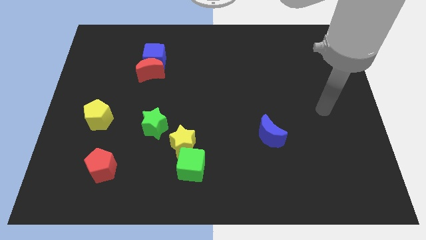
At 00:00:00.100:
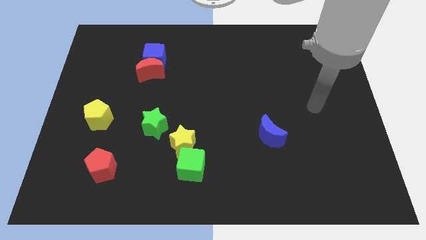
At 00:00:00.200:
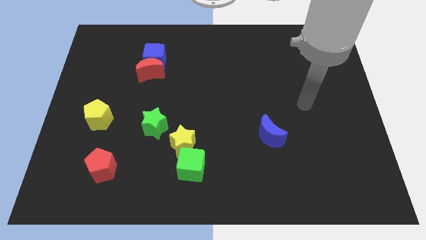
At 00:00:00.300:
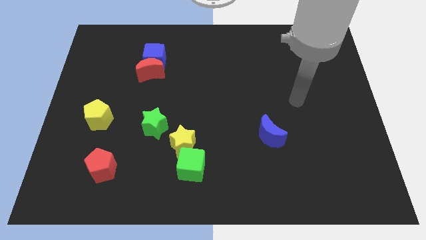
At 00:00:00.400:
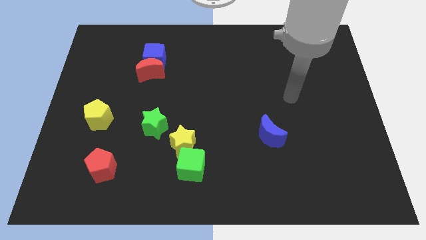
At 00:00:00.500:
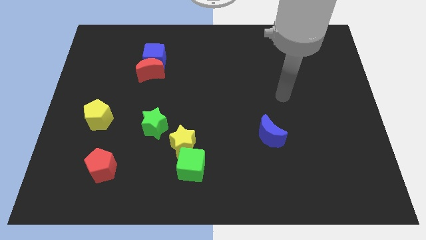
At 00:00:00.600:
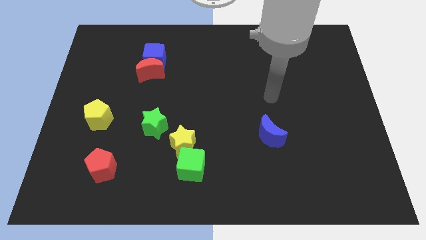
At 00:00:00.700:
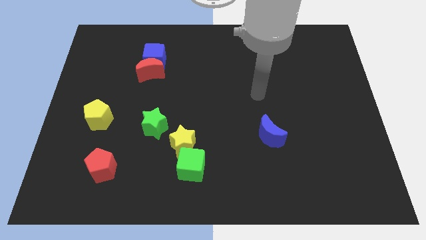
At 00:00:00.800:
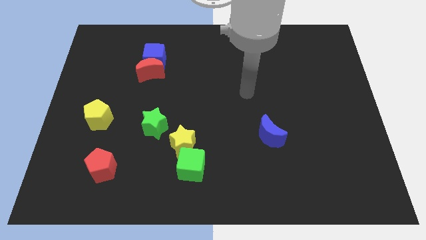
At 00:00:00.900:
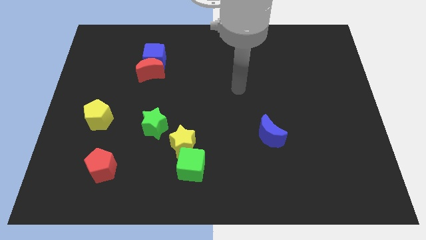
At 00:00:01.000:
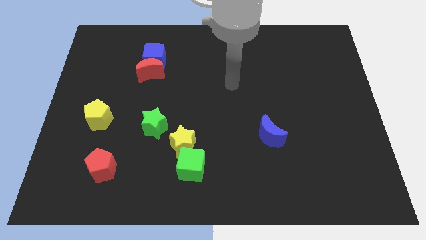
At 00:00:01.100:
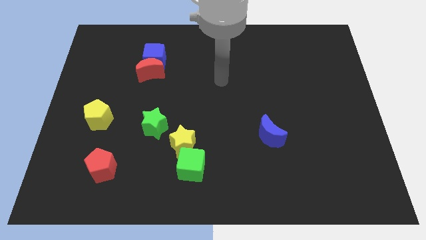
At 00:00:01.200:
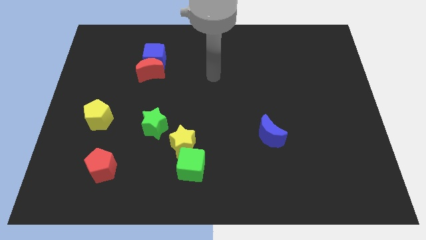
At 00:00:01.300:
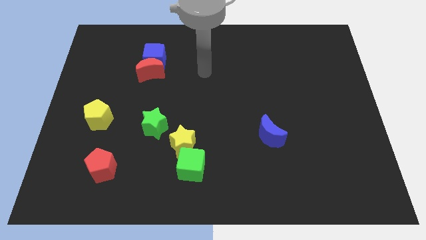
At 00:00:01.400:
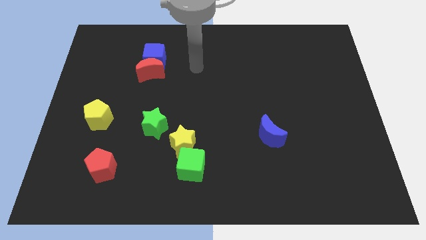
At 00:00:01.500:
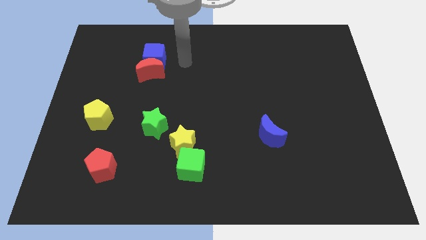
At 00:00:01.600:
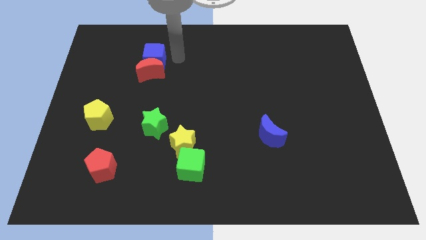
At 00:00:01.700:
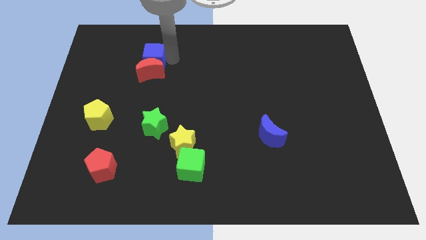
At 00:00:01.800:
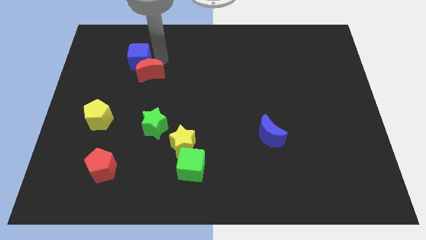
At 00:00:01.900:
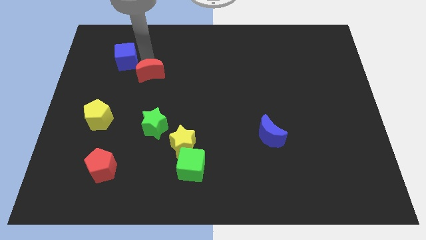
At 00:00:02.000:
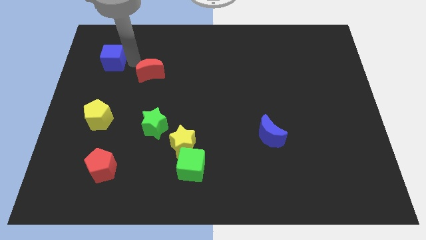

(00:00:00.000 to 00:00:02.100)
move the red moon away from the blue cube

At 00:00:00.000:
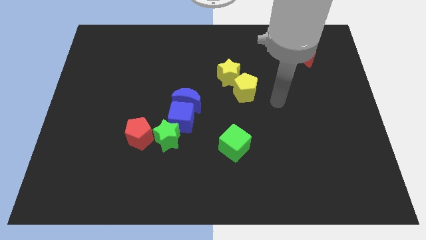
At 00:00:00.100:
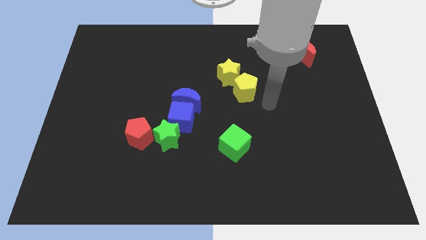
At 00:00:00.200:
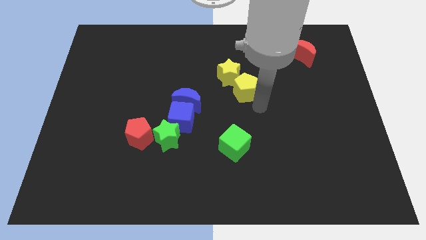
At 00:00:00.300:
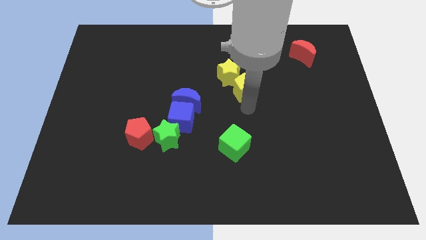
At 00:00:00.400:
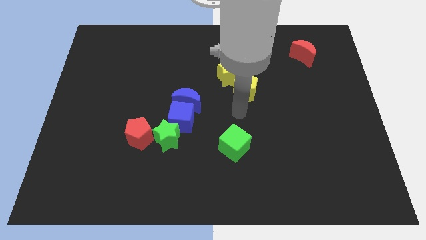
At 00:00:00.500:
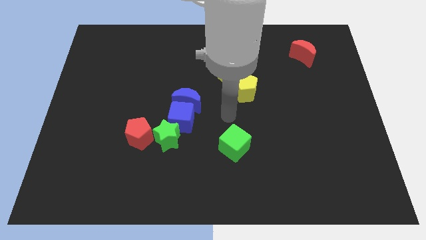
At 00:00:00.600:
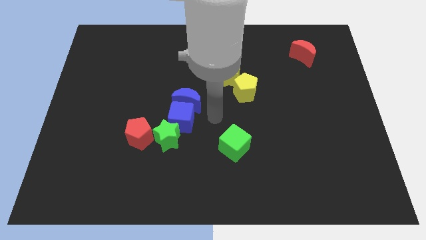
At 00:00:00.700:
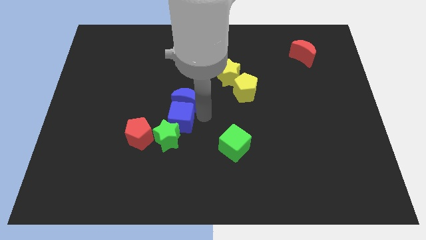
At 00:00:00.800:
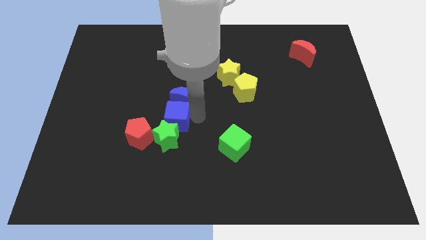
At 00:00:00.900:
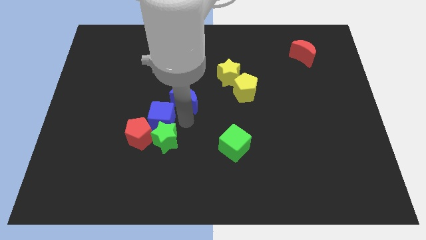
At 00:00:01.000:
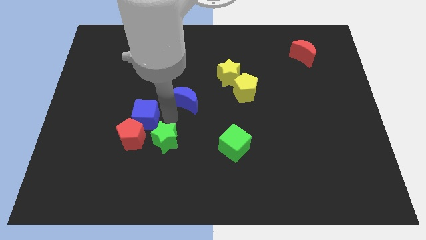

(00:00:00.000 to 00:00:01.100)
pull the blue moon apart from the blue cube

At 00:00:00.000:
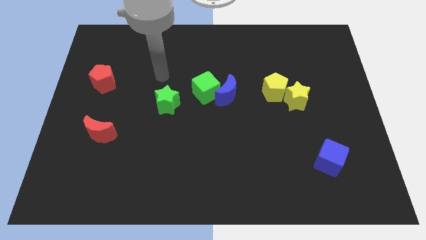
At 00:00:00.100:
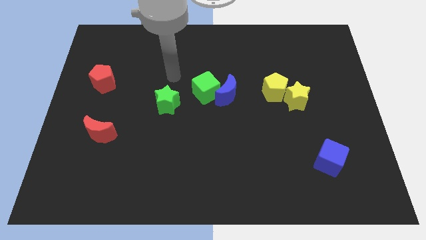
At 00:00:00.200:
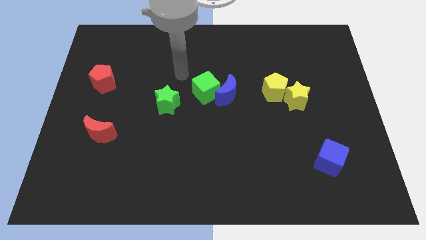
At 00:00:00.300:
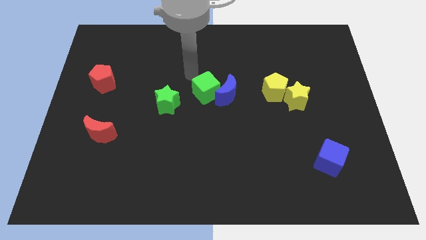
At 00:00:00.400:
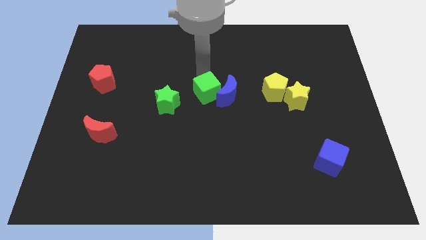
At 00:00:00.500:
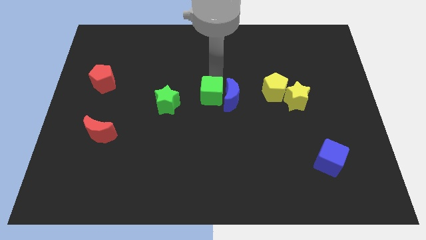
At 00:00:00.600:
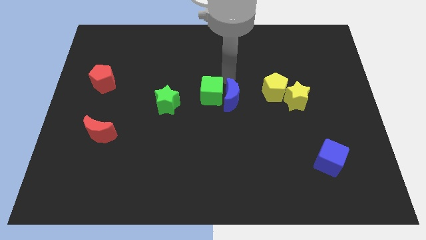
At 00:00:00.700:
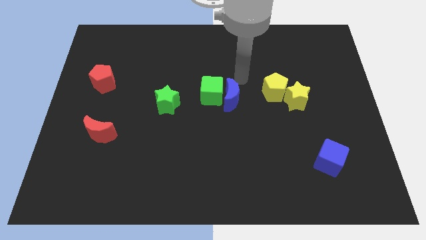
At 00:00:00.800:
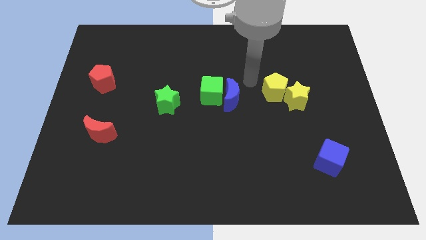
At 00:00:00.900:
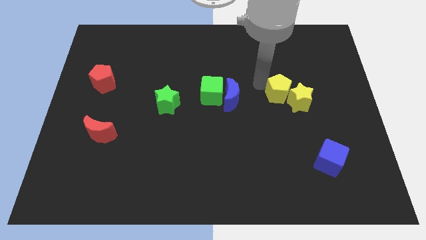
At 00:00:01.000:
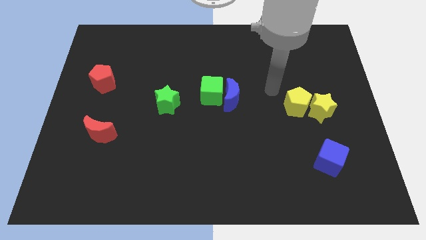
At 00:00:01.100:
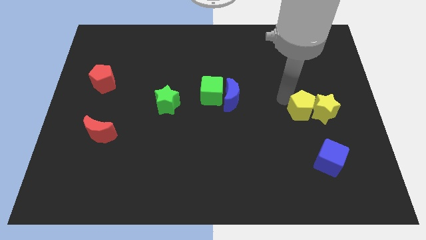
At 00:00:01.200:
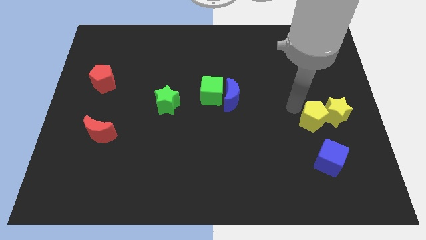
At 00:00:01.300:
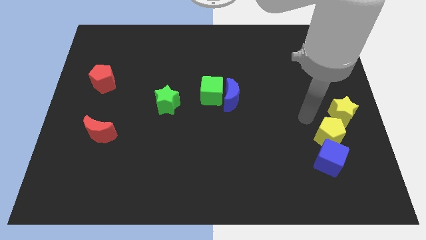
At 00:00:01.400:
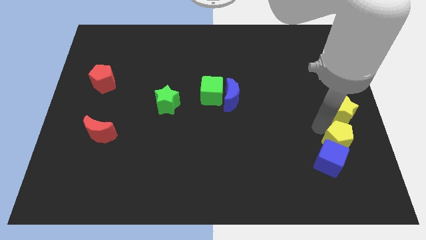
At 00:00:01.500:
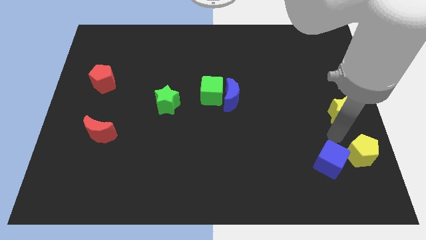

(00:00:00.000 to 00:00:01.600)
move the yellow star away from the yellow pentagon

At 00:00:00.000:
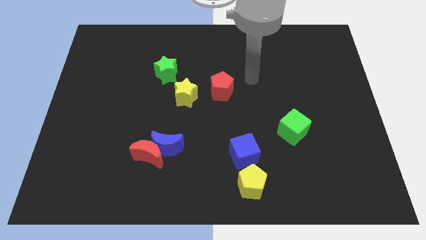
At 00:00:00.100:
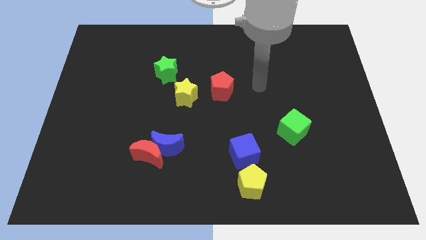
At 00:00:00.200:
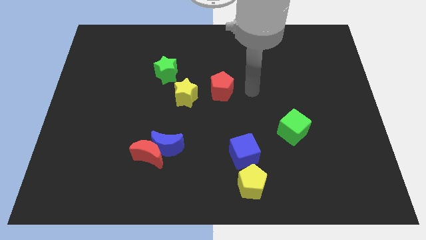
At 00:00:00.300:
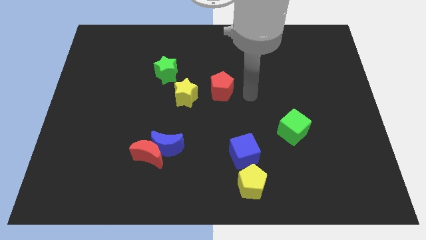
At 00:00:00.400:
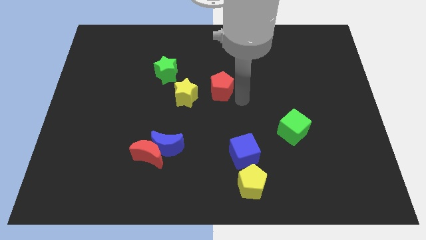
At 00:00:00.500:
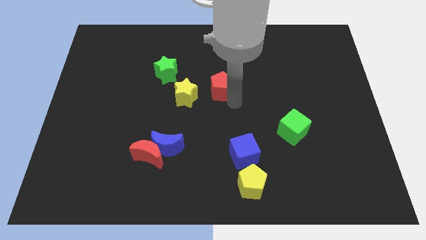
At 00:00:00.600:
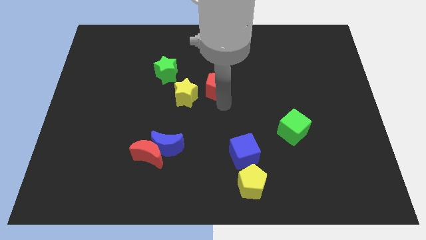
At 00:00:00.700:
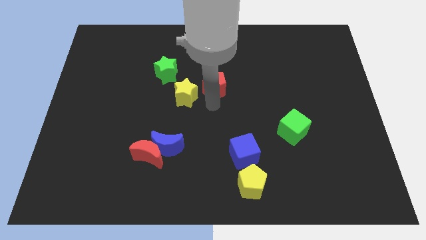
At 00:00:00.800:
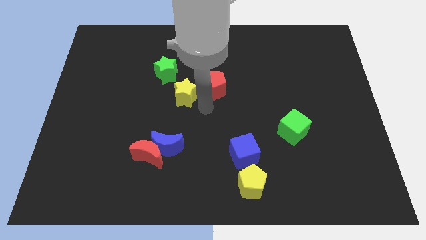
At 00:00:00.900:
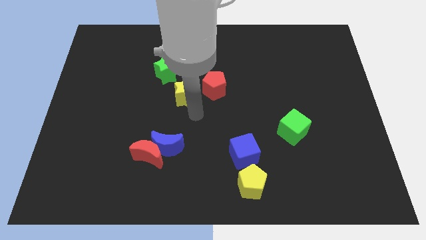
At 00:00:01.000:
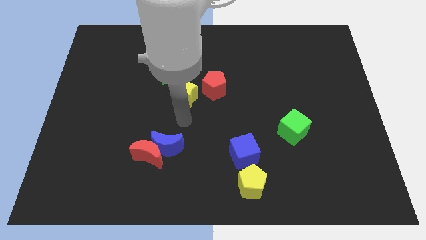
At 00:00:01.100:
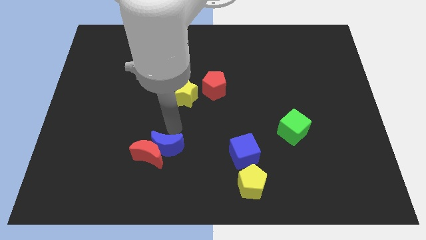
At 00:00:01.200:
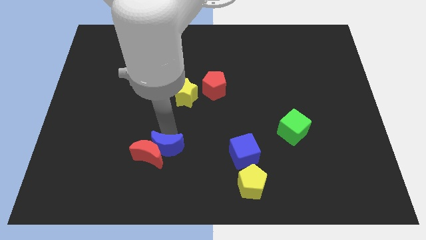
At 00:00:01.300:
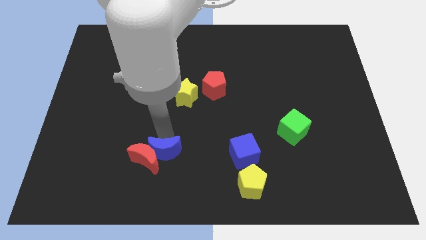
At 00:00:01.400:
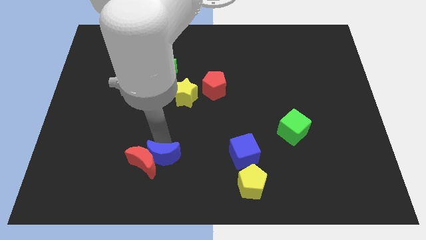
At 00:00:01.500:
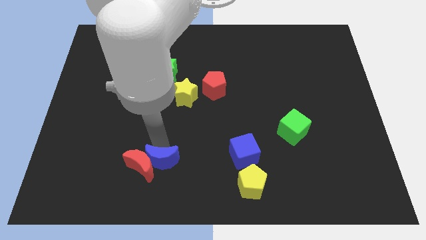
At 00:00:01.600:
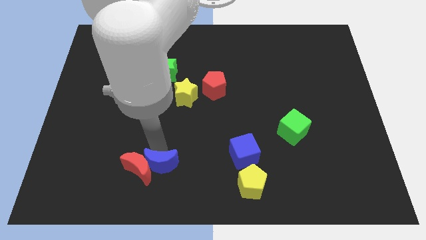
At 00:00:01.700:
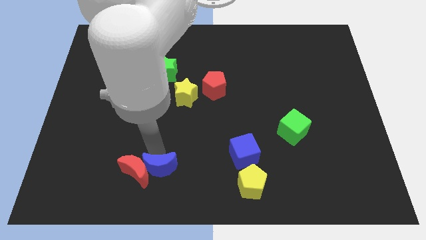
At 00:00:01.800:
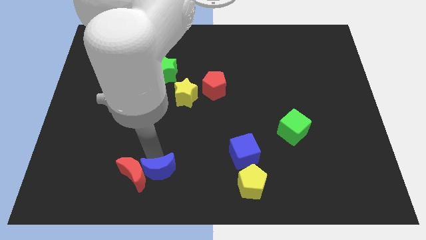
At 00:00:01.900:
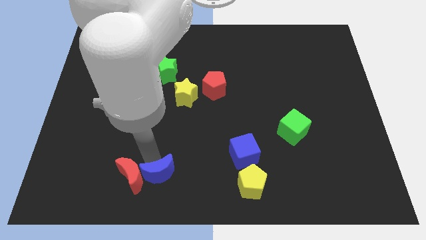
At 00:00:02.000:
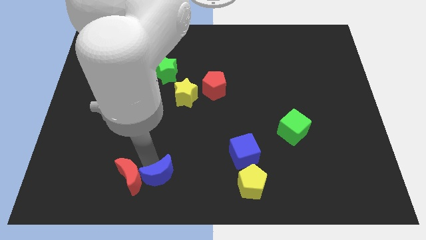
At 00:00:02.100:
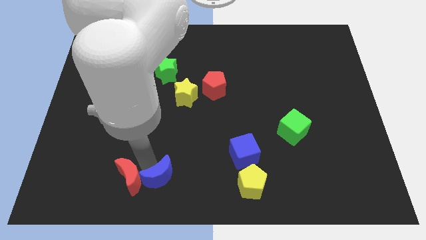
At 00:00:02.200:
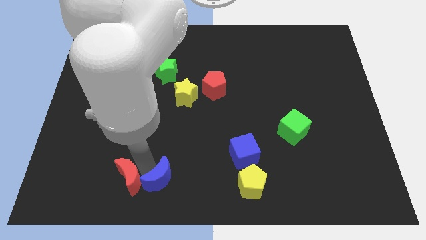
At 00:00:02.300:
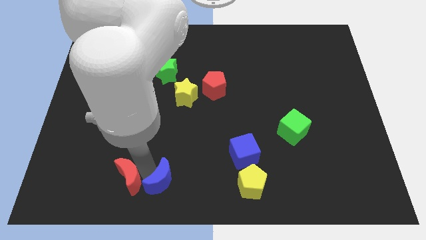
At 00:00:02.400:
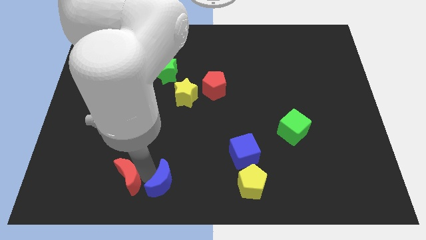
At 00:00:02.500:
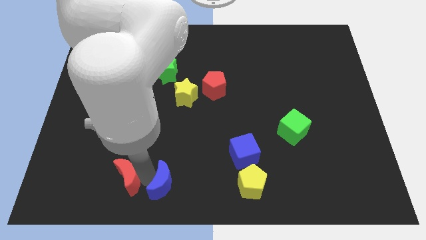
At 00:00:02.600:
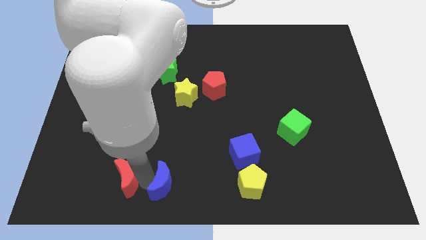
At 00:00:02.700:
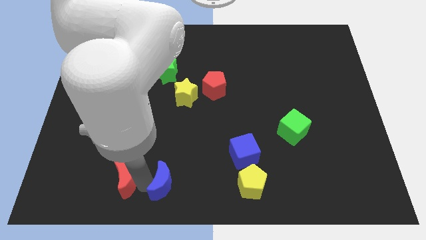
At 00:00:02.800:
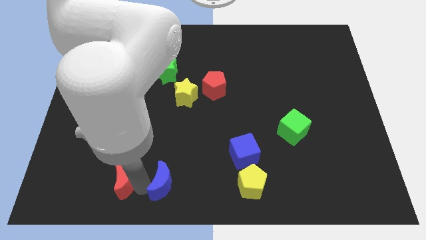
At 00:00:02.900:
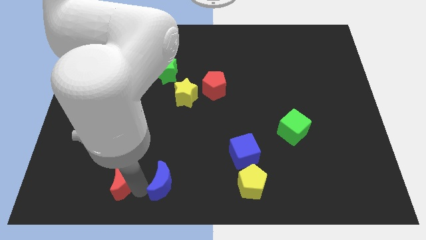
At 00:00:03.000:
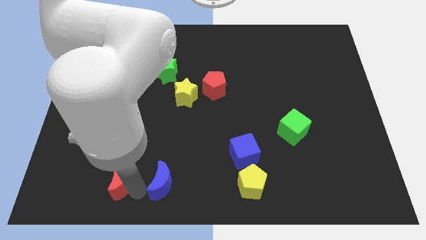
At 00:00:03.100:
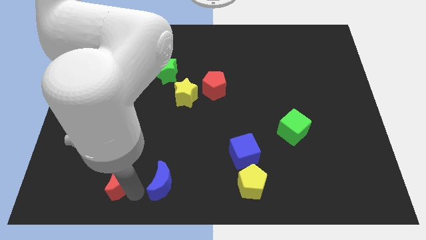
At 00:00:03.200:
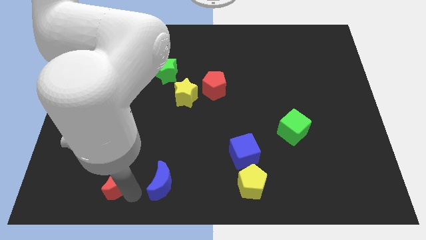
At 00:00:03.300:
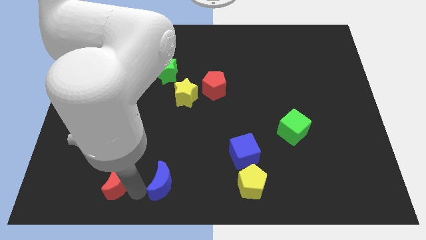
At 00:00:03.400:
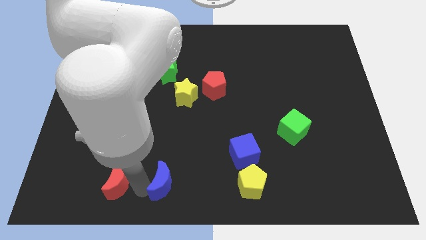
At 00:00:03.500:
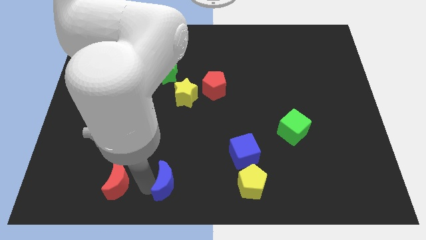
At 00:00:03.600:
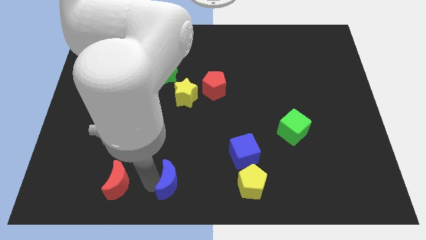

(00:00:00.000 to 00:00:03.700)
separate the red moon from the blue moon

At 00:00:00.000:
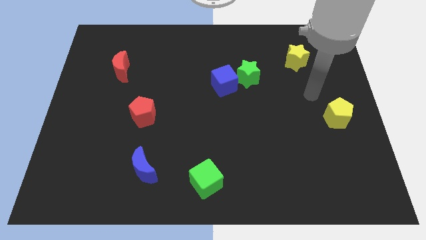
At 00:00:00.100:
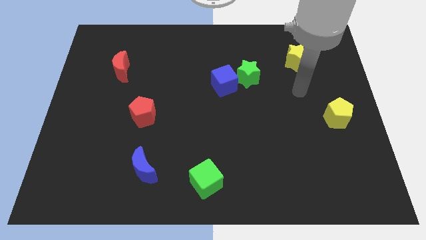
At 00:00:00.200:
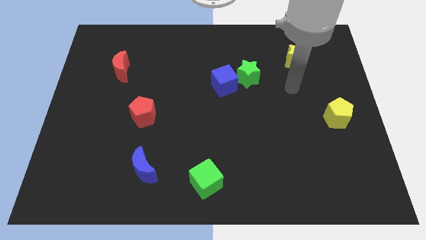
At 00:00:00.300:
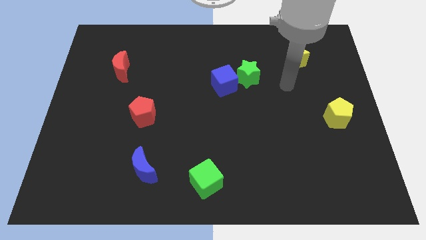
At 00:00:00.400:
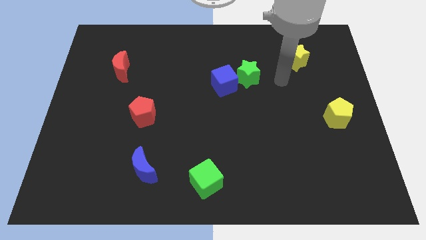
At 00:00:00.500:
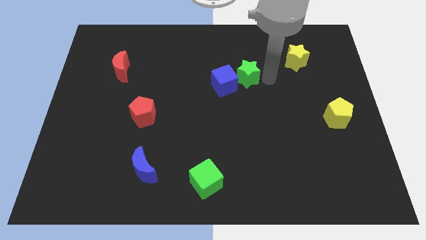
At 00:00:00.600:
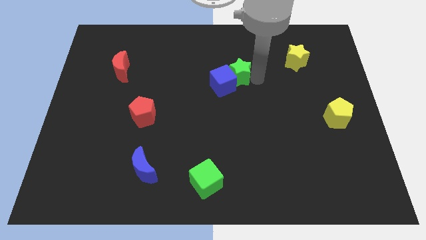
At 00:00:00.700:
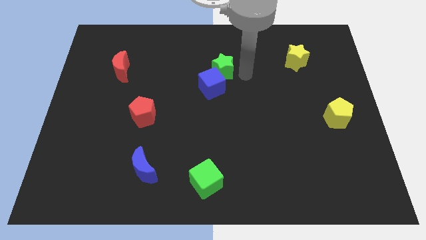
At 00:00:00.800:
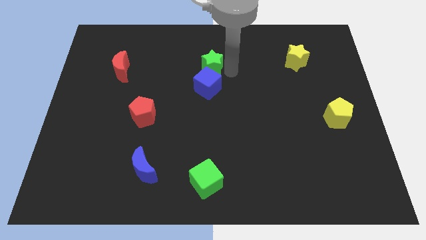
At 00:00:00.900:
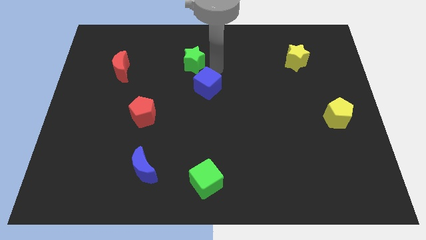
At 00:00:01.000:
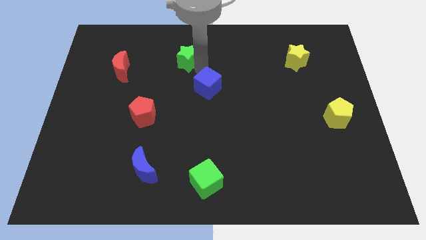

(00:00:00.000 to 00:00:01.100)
separate the blue cube from the green star
